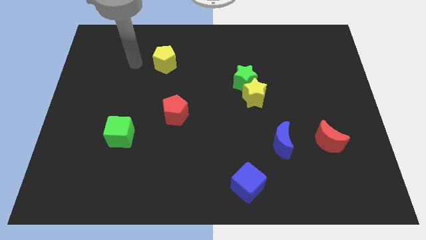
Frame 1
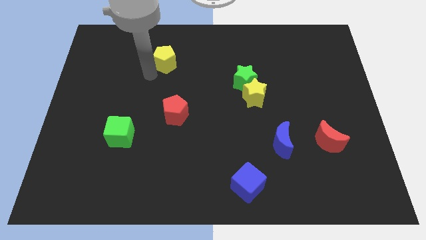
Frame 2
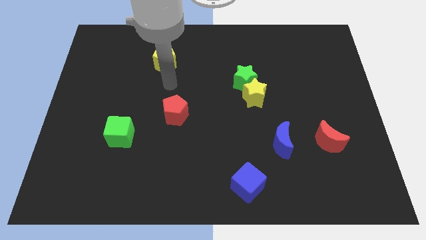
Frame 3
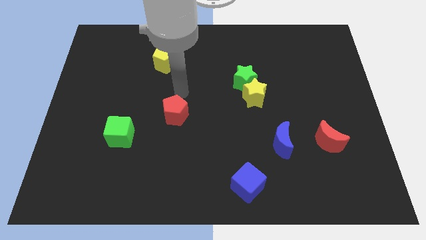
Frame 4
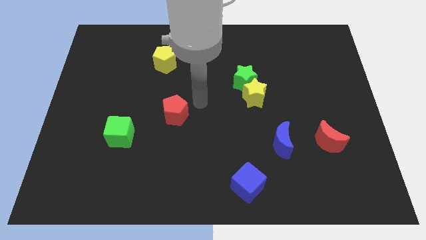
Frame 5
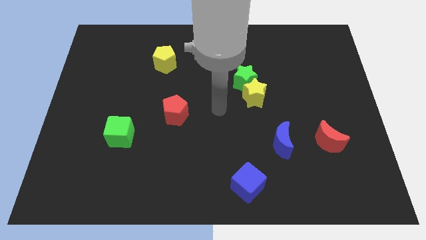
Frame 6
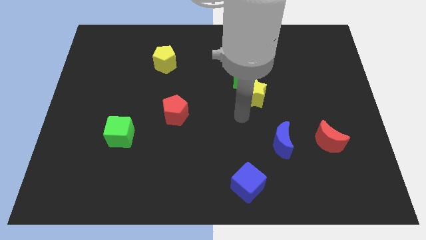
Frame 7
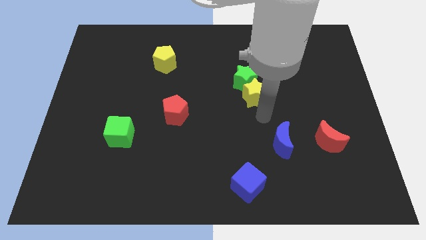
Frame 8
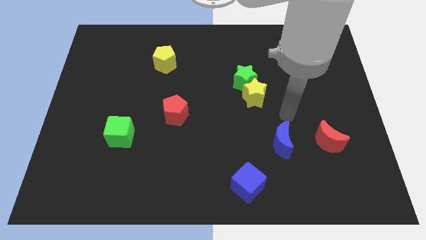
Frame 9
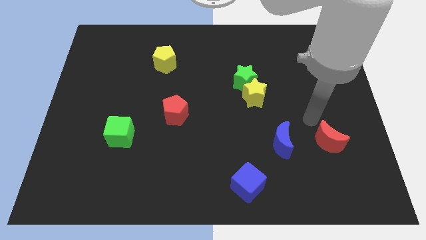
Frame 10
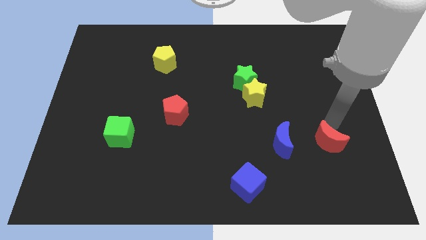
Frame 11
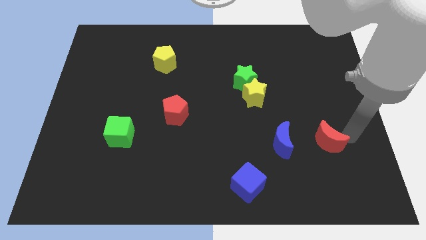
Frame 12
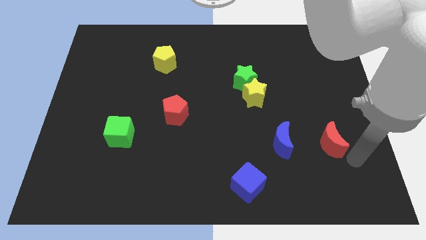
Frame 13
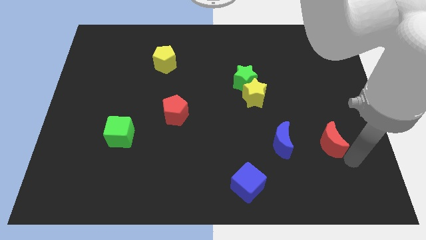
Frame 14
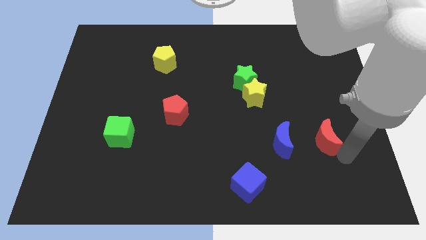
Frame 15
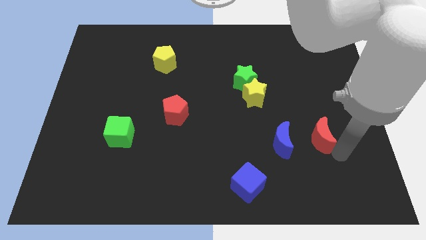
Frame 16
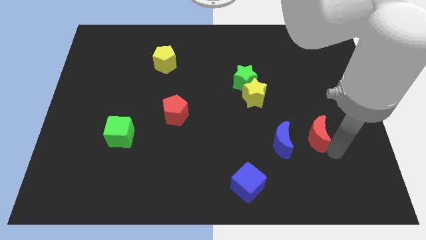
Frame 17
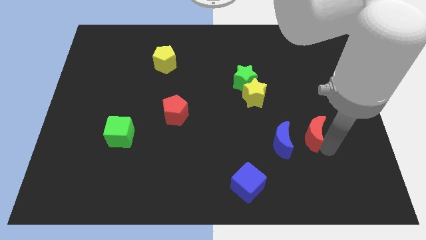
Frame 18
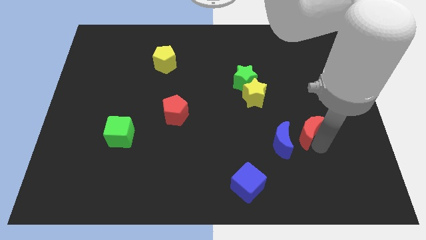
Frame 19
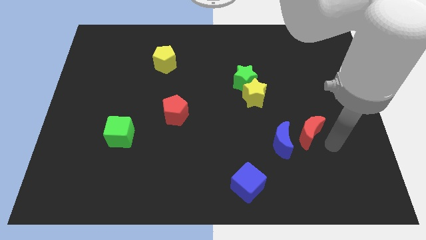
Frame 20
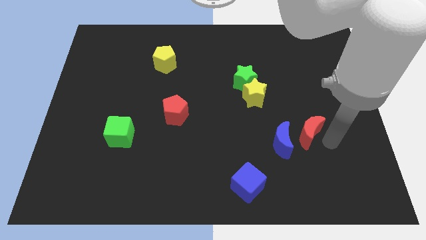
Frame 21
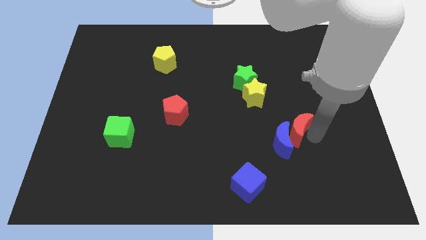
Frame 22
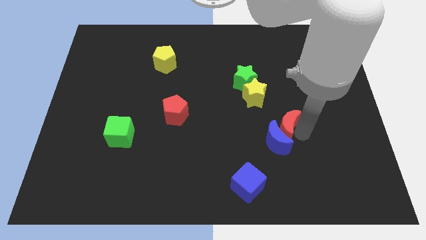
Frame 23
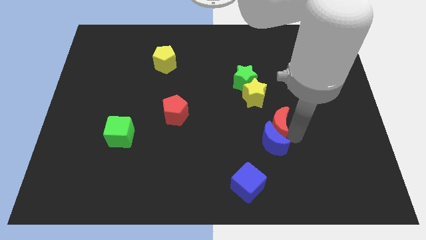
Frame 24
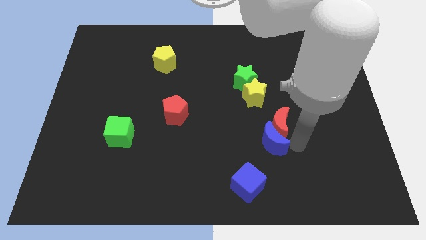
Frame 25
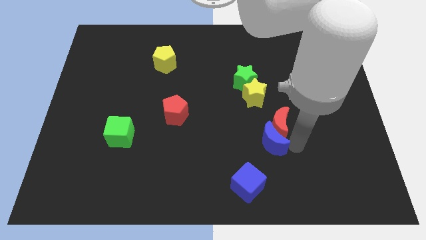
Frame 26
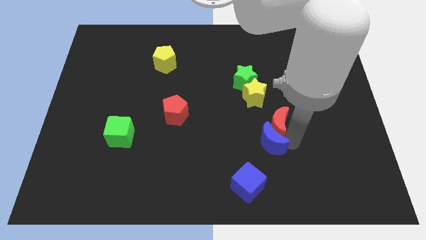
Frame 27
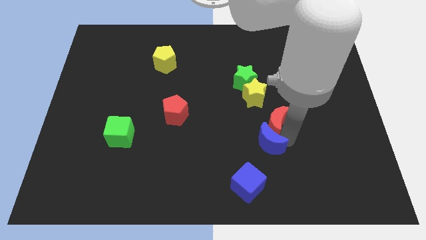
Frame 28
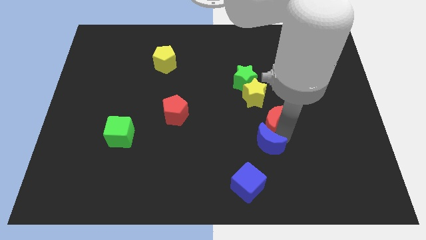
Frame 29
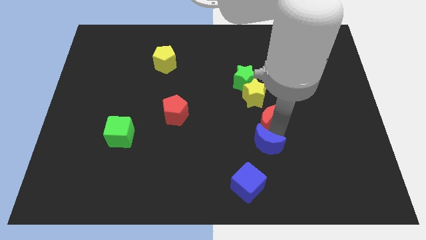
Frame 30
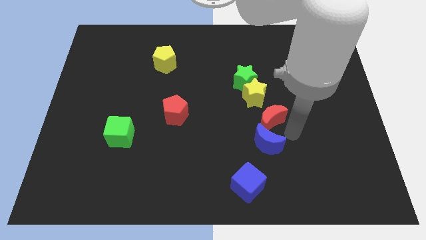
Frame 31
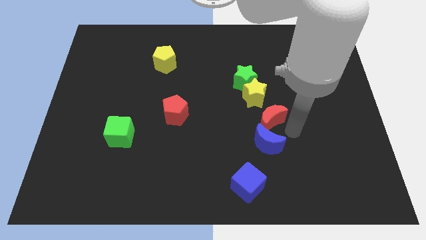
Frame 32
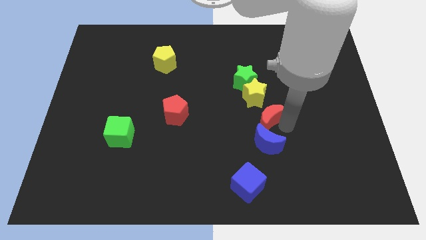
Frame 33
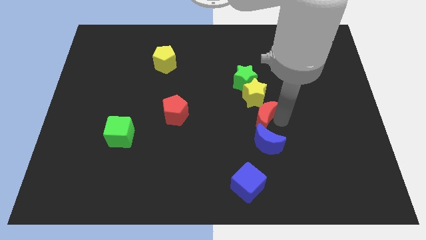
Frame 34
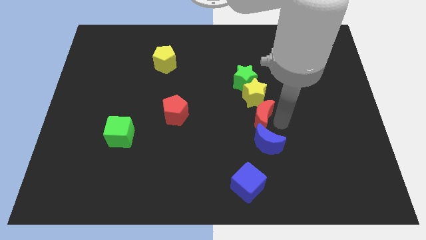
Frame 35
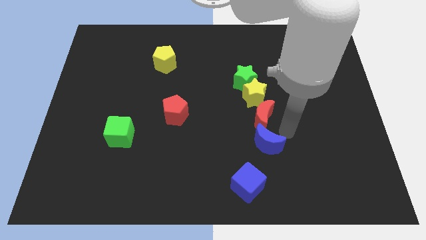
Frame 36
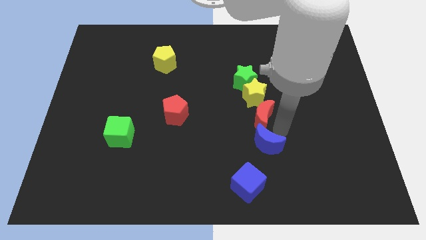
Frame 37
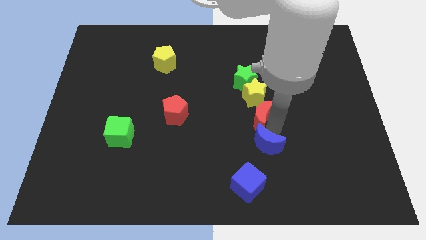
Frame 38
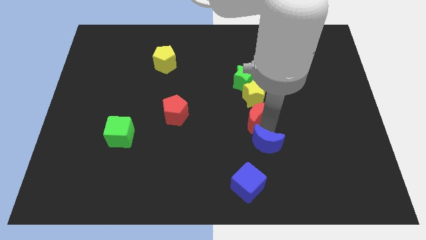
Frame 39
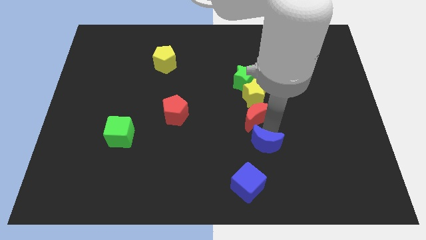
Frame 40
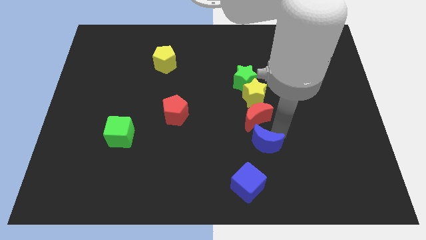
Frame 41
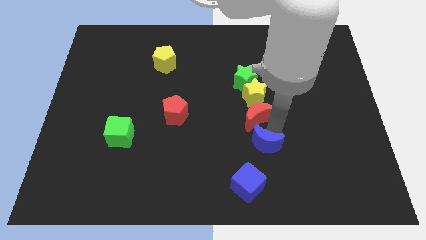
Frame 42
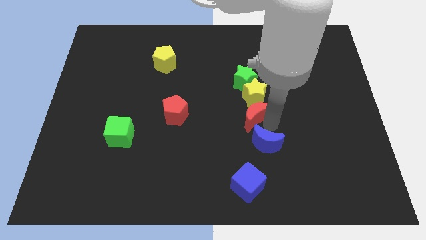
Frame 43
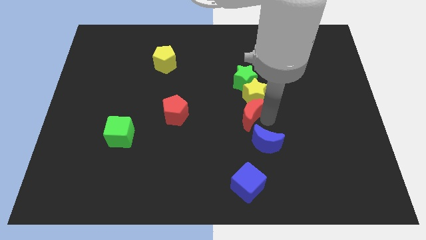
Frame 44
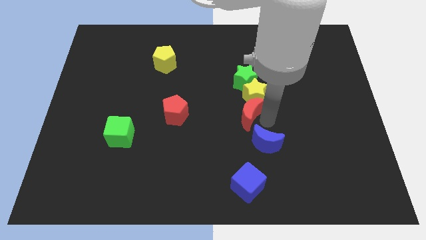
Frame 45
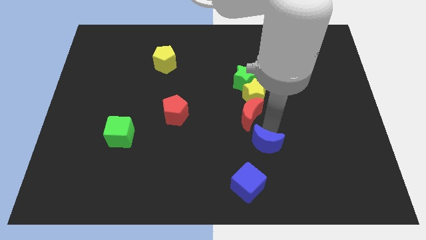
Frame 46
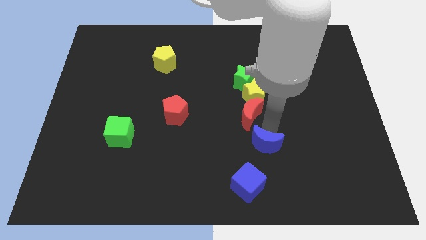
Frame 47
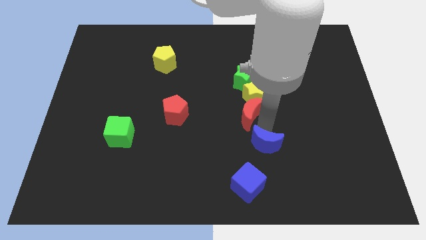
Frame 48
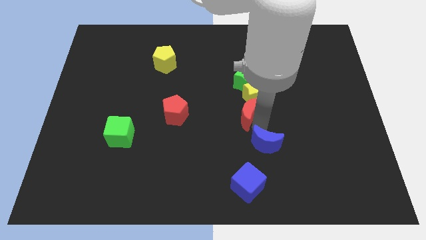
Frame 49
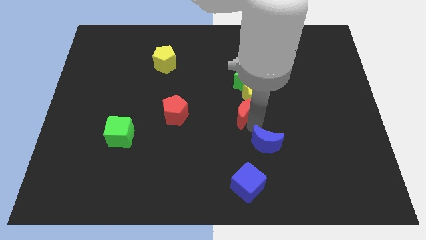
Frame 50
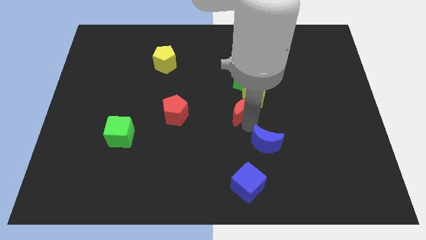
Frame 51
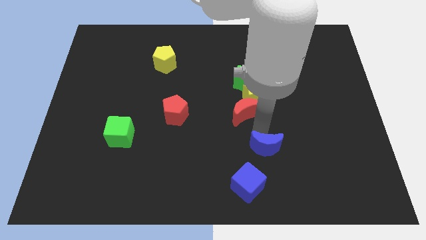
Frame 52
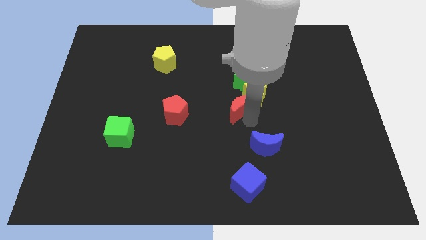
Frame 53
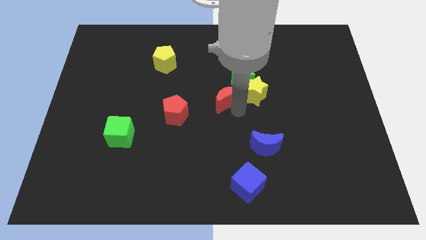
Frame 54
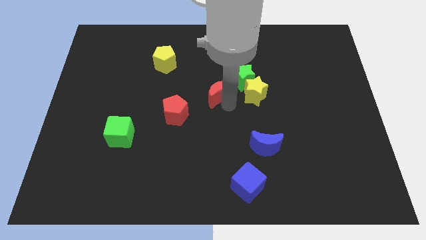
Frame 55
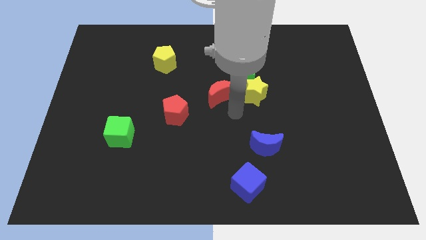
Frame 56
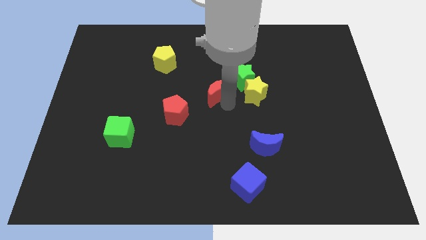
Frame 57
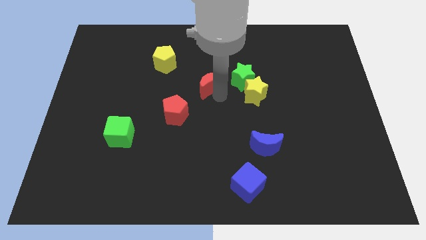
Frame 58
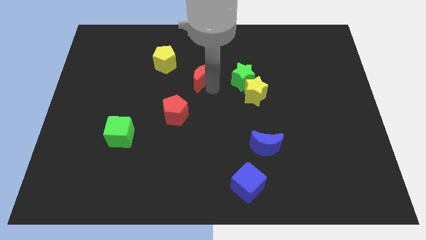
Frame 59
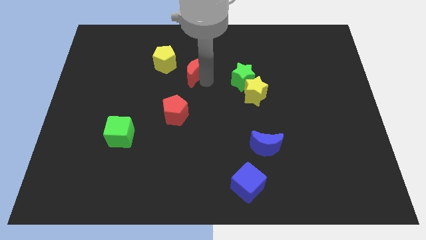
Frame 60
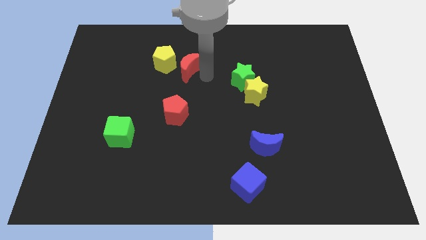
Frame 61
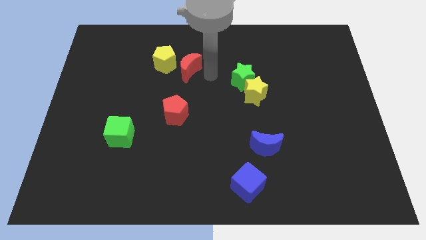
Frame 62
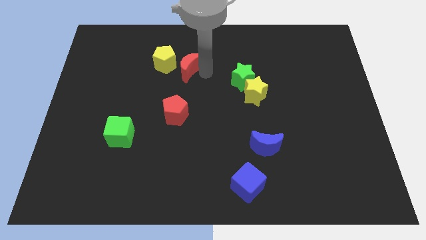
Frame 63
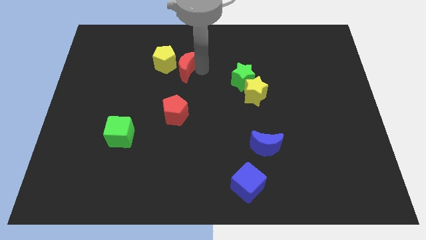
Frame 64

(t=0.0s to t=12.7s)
push the red moon next to the yellow pentagon

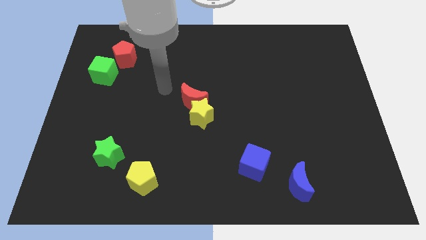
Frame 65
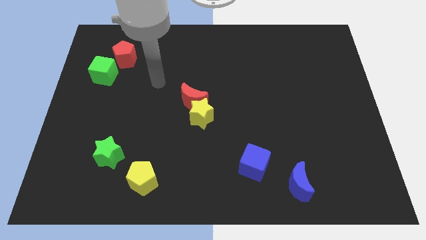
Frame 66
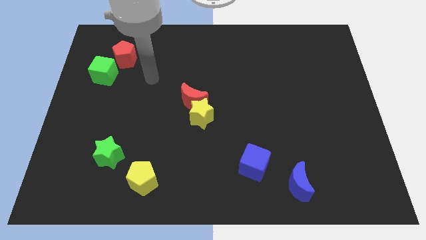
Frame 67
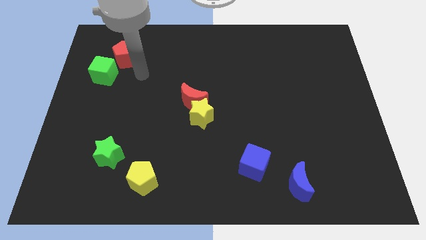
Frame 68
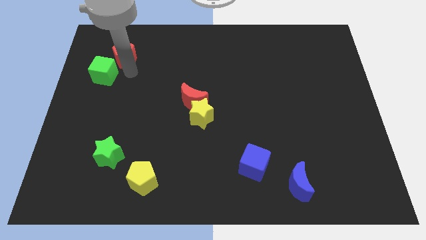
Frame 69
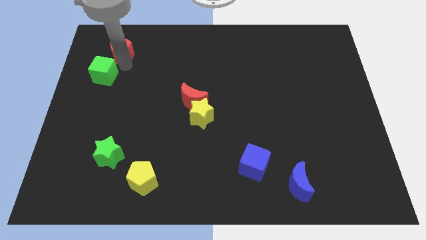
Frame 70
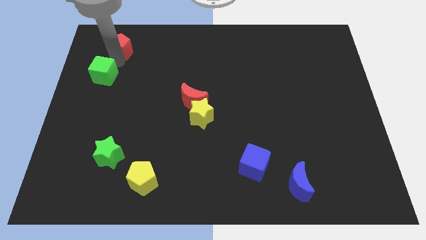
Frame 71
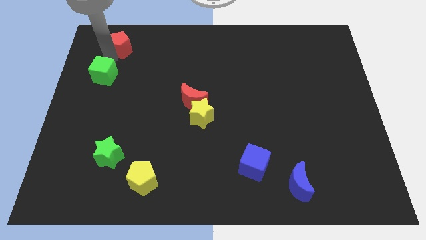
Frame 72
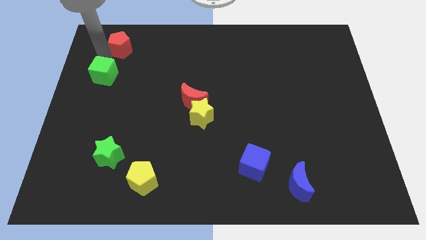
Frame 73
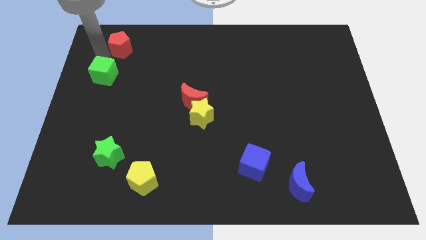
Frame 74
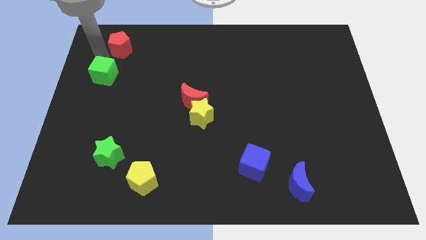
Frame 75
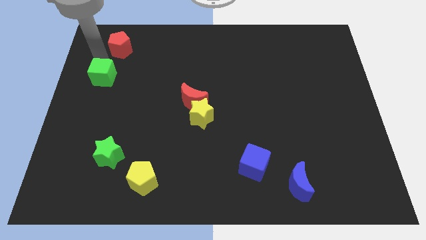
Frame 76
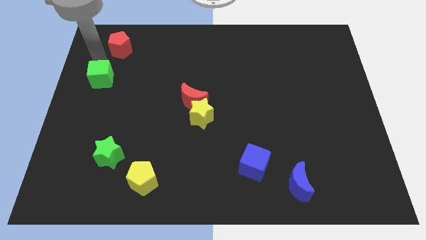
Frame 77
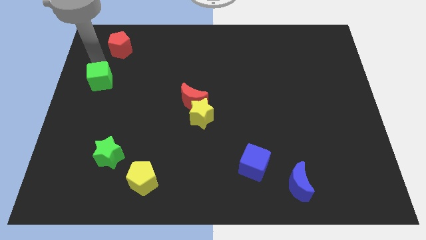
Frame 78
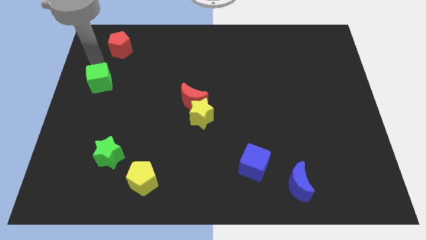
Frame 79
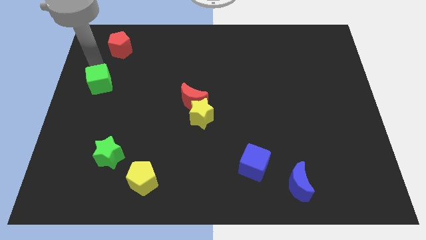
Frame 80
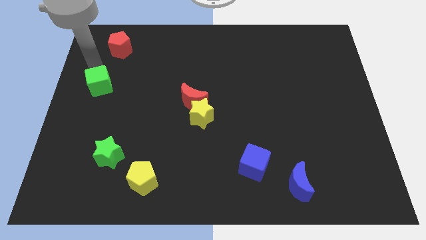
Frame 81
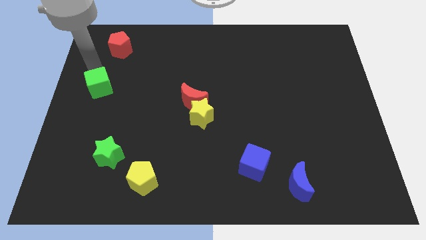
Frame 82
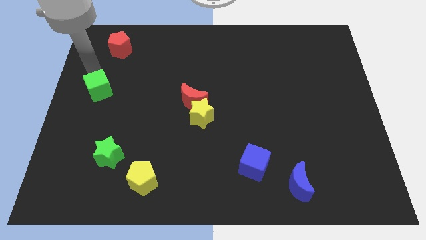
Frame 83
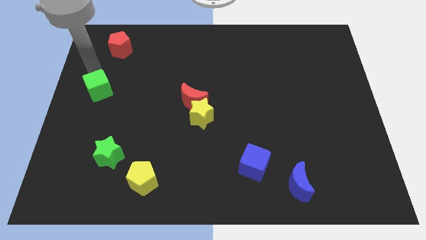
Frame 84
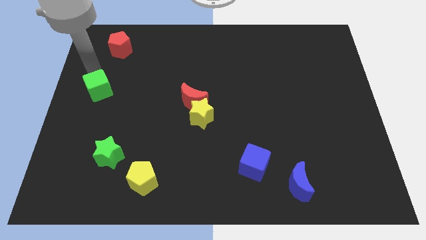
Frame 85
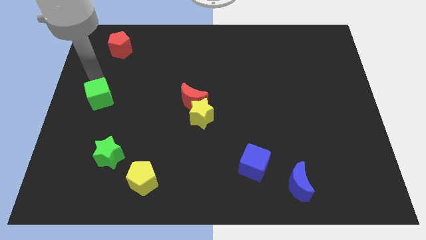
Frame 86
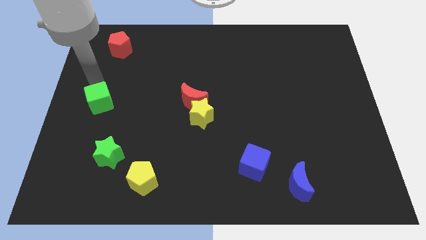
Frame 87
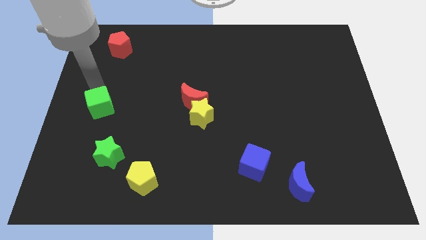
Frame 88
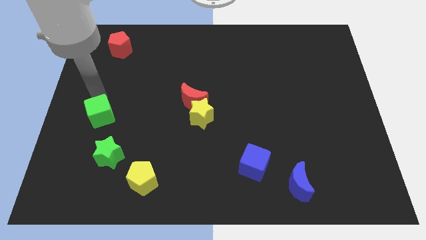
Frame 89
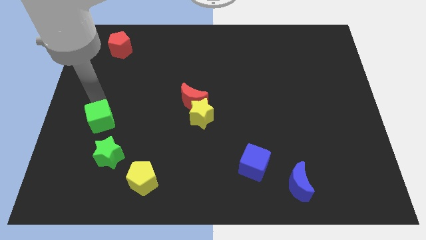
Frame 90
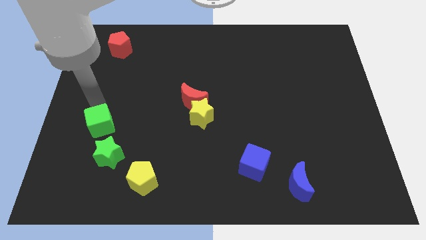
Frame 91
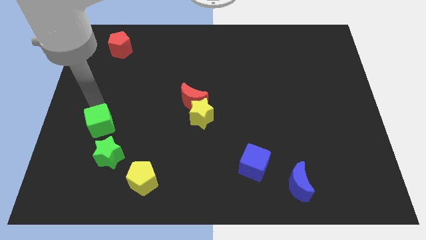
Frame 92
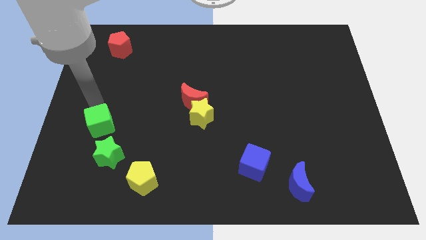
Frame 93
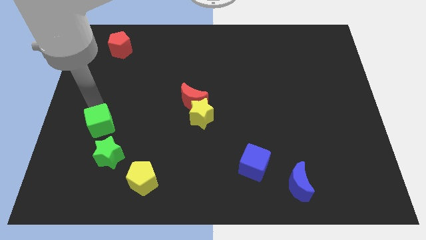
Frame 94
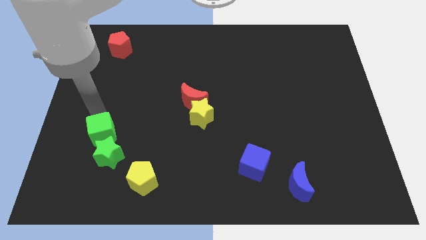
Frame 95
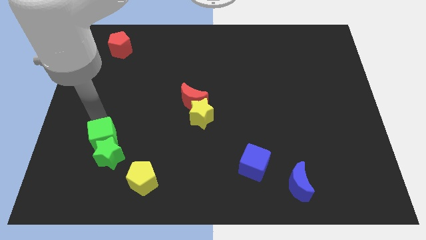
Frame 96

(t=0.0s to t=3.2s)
put the green cube close to the green star
